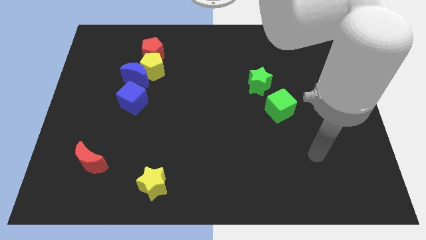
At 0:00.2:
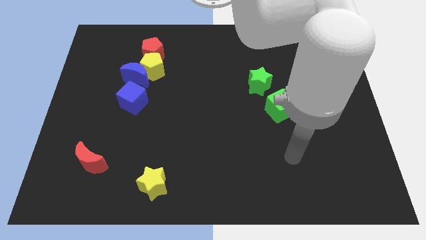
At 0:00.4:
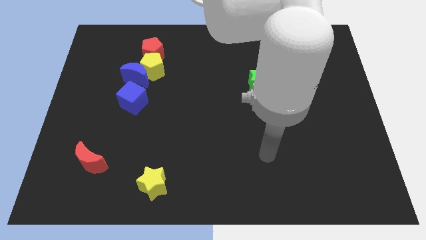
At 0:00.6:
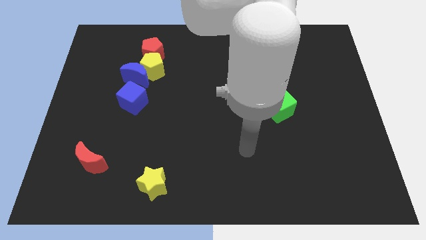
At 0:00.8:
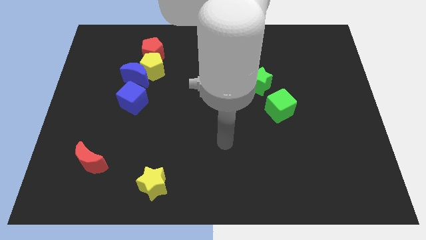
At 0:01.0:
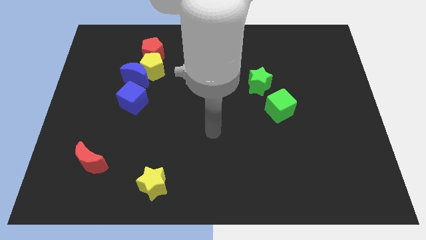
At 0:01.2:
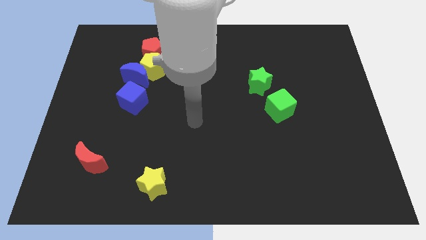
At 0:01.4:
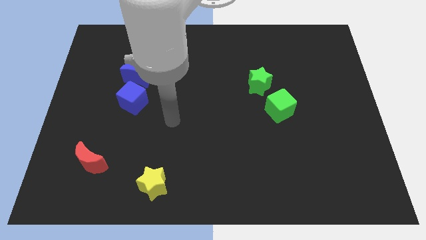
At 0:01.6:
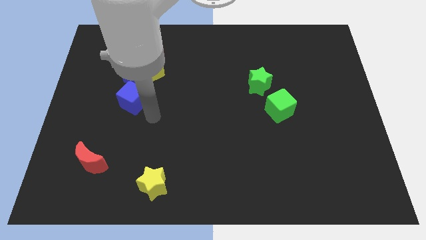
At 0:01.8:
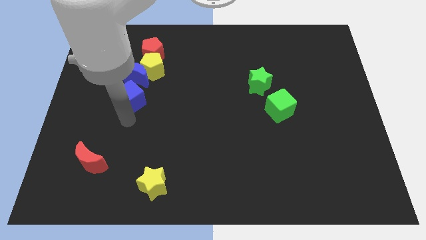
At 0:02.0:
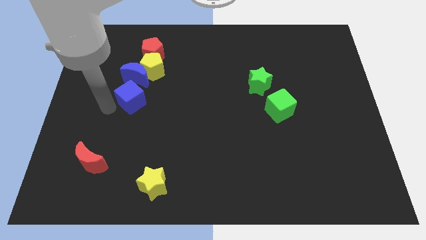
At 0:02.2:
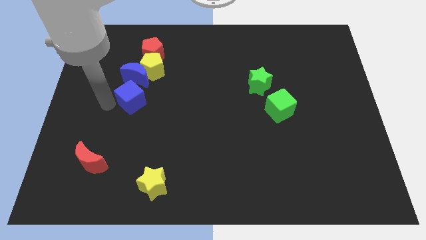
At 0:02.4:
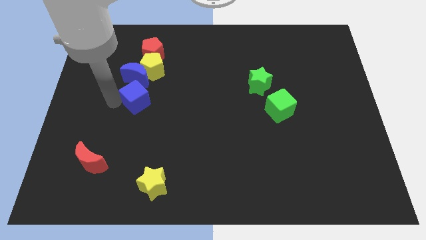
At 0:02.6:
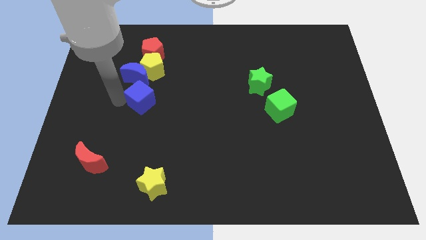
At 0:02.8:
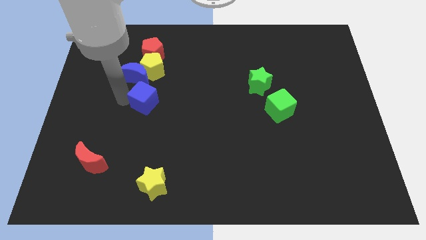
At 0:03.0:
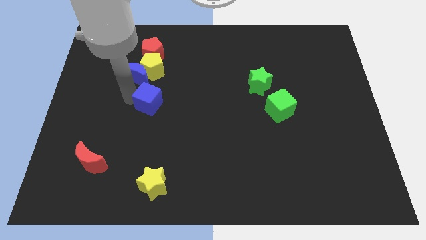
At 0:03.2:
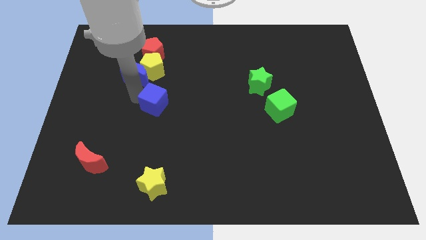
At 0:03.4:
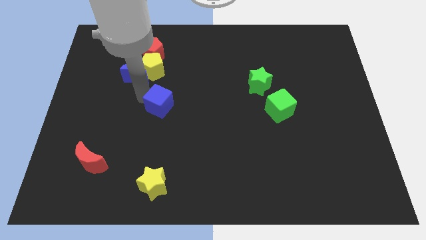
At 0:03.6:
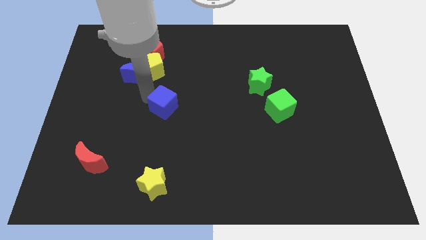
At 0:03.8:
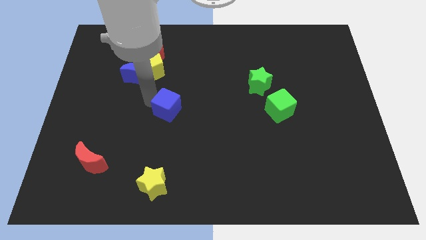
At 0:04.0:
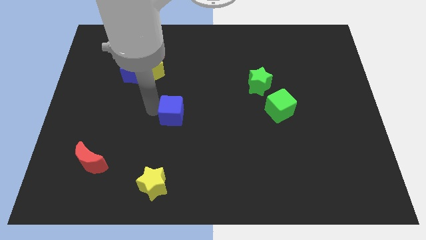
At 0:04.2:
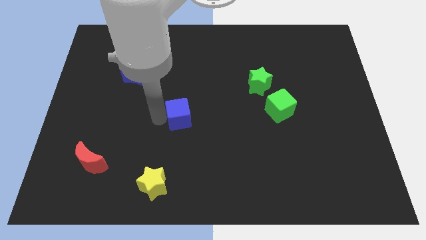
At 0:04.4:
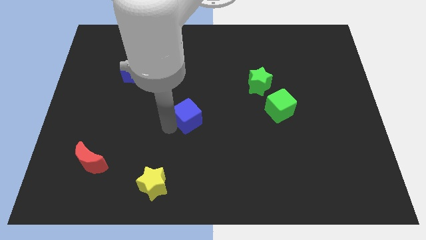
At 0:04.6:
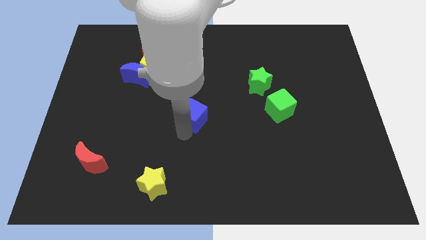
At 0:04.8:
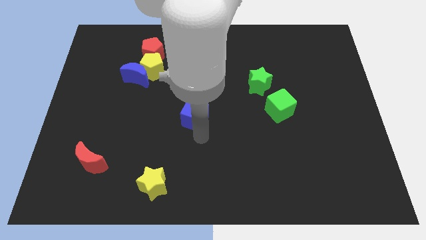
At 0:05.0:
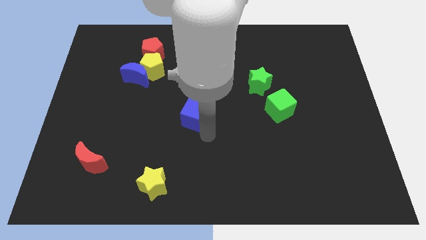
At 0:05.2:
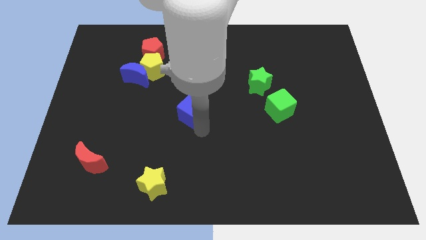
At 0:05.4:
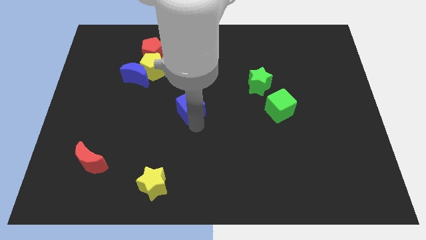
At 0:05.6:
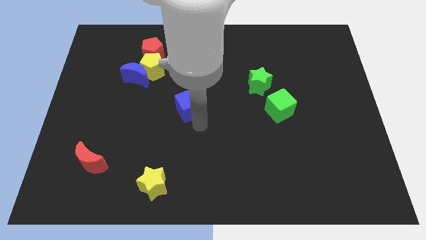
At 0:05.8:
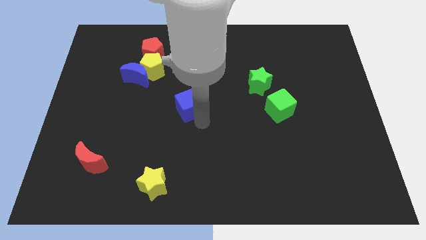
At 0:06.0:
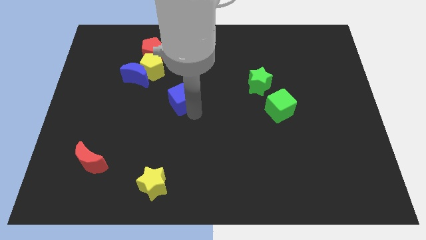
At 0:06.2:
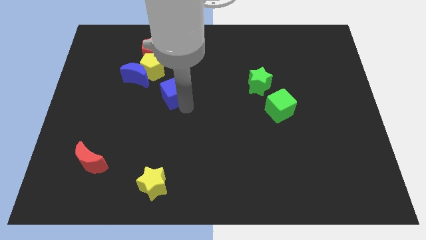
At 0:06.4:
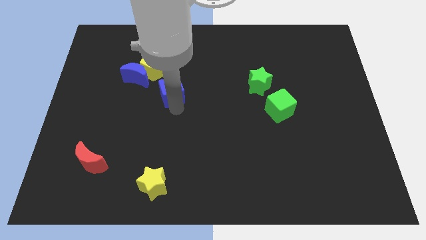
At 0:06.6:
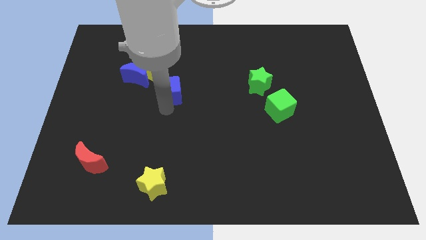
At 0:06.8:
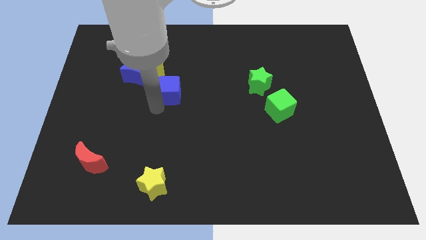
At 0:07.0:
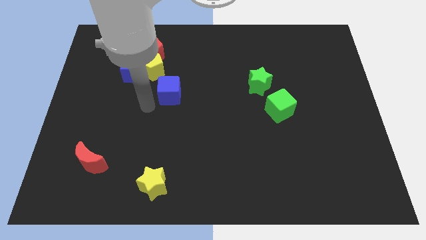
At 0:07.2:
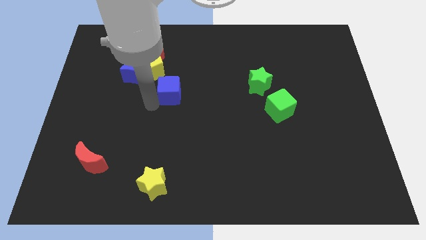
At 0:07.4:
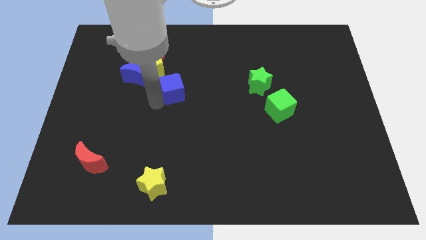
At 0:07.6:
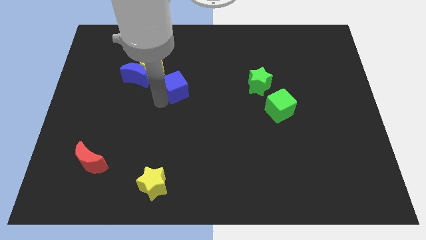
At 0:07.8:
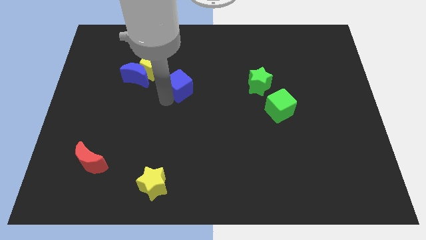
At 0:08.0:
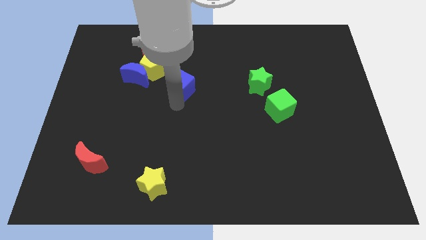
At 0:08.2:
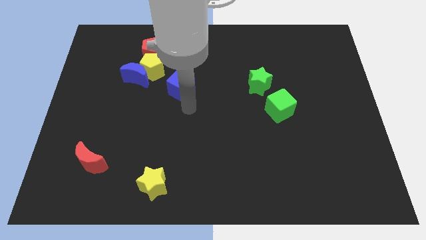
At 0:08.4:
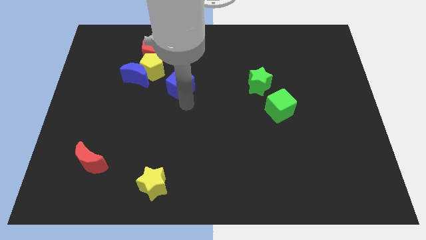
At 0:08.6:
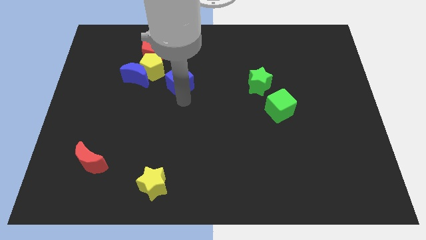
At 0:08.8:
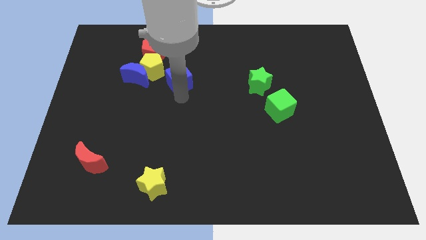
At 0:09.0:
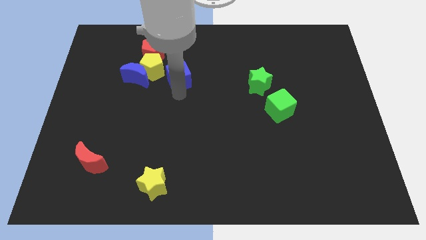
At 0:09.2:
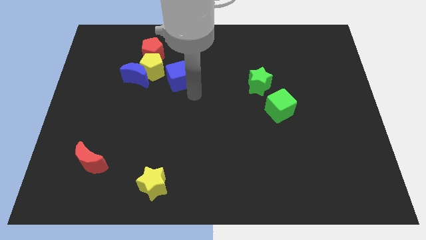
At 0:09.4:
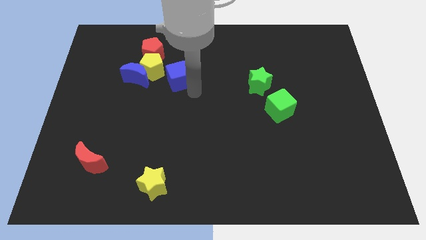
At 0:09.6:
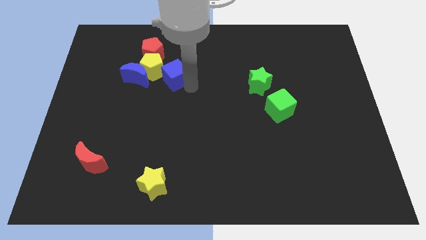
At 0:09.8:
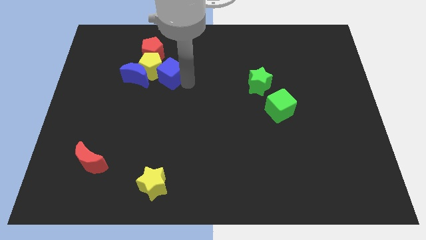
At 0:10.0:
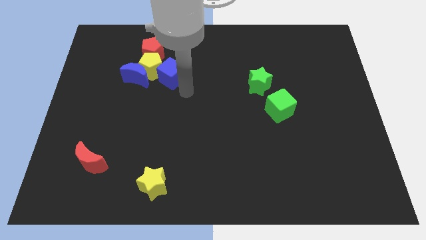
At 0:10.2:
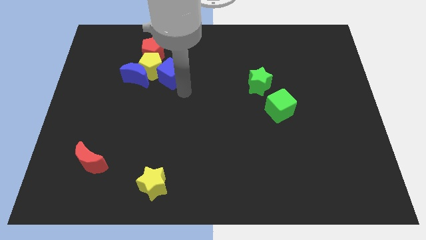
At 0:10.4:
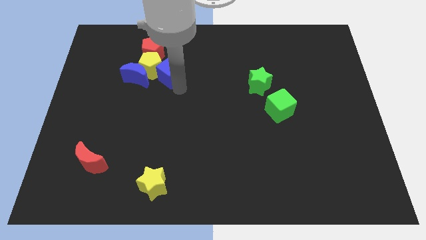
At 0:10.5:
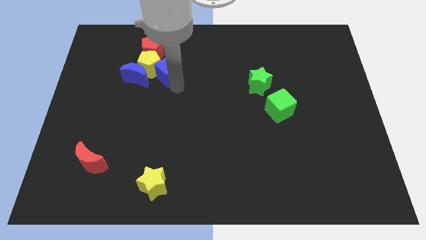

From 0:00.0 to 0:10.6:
slide the blue cube to the top right side of the blue moon

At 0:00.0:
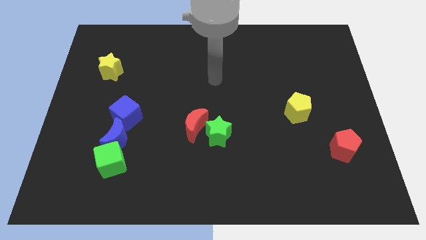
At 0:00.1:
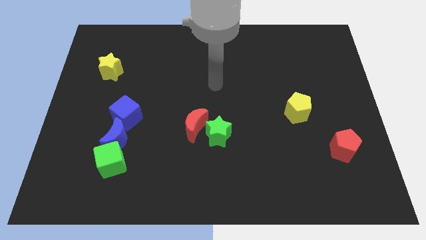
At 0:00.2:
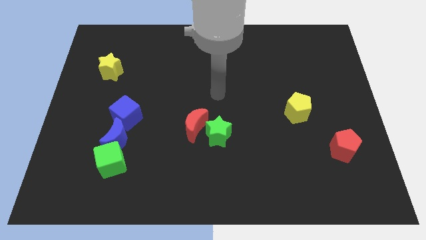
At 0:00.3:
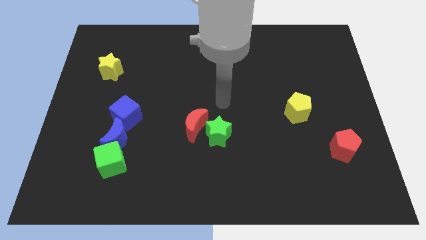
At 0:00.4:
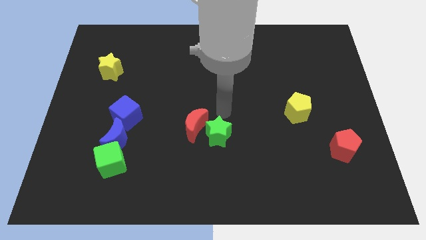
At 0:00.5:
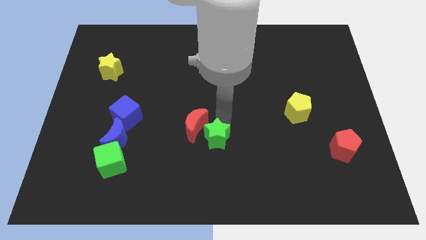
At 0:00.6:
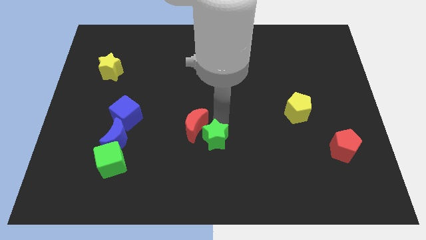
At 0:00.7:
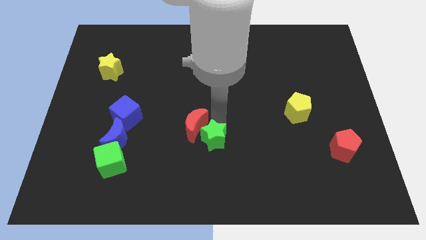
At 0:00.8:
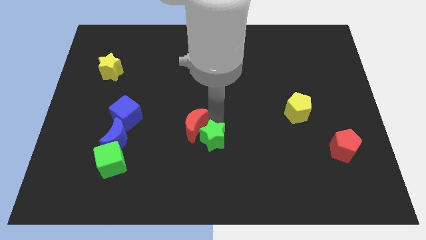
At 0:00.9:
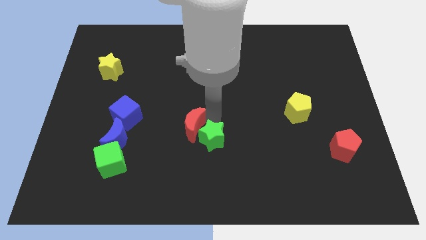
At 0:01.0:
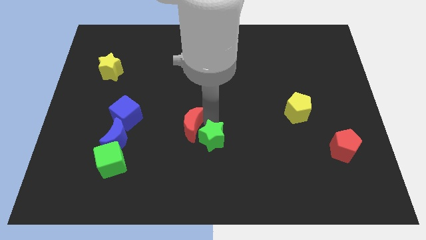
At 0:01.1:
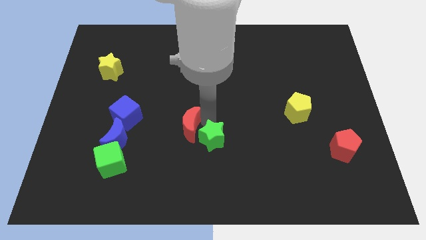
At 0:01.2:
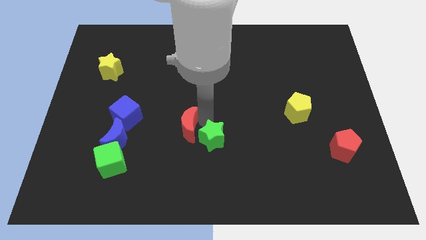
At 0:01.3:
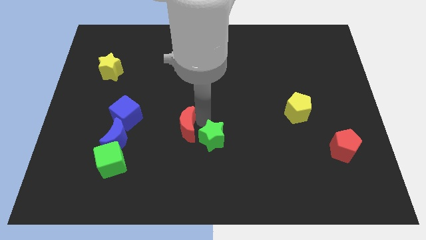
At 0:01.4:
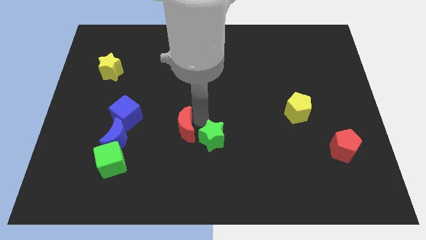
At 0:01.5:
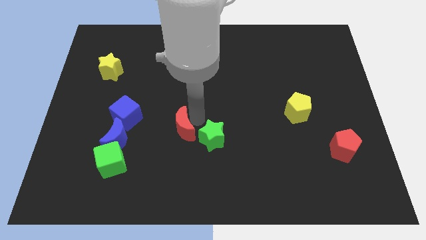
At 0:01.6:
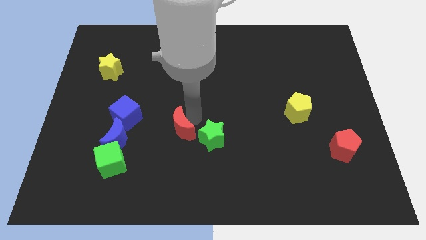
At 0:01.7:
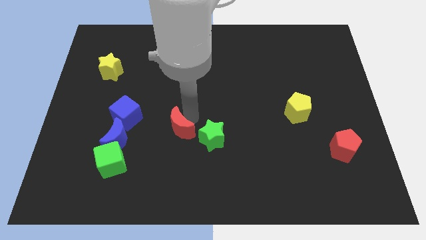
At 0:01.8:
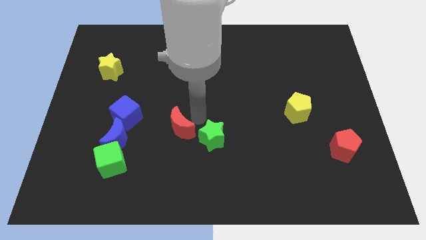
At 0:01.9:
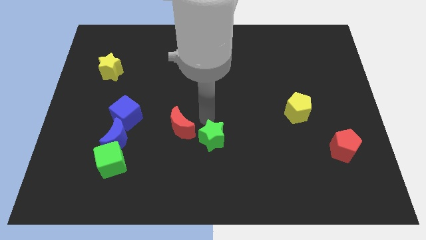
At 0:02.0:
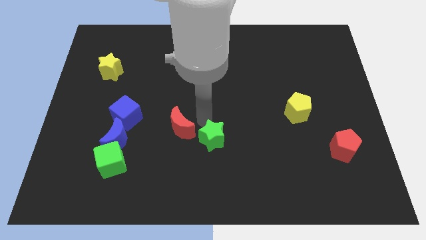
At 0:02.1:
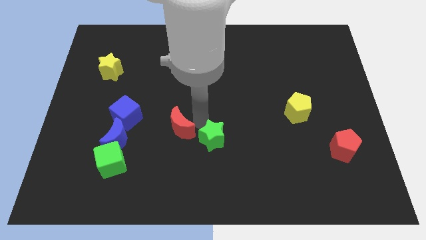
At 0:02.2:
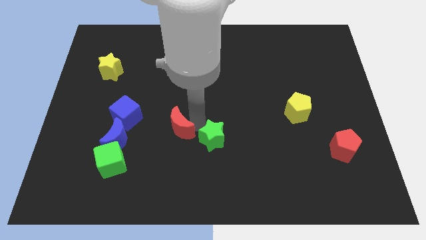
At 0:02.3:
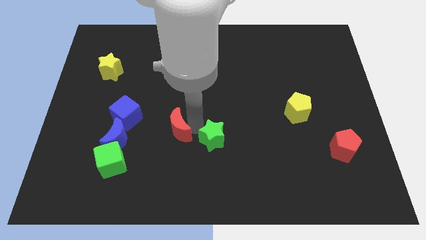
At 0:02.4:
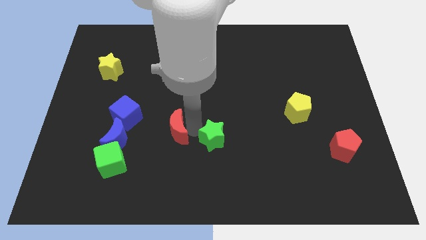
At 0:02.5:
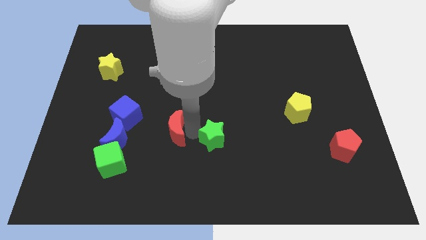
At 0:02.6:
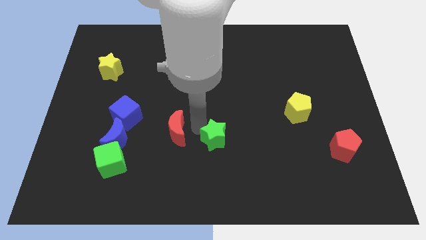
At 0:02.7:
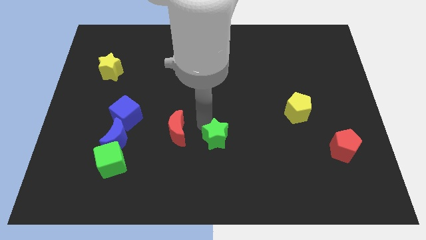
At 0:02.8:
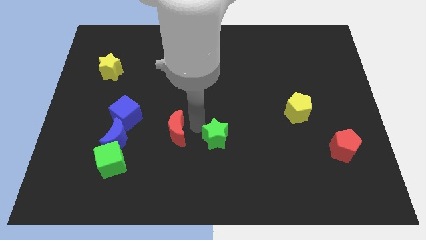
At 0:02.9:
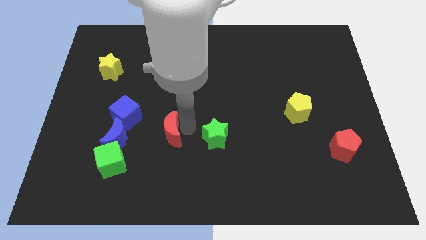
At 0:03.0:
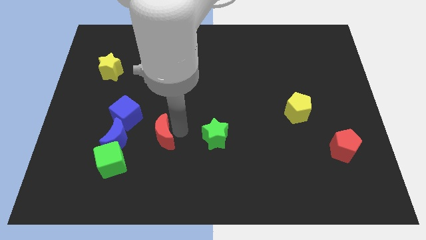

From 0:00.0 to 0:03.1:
slide the red moon diagonally up and to the right of the green cube
